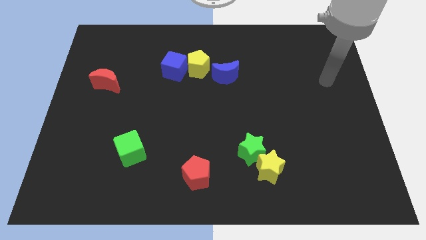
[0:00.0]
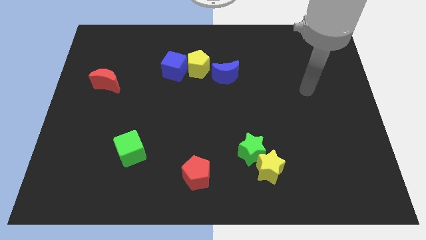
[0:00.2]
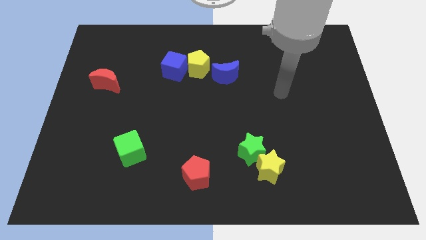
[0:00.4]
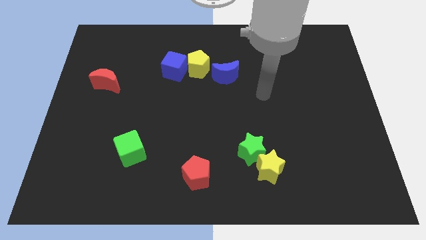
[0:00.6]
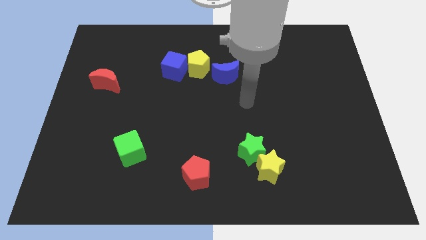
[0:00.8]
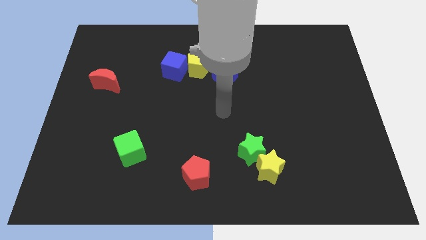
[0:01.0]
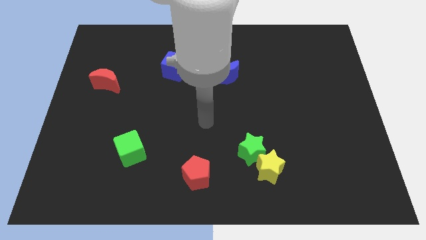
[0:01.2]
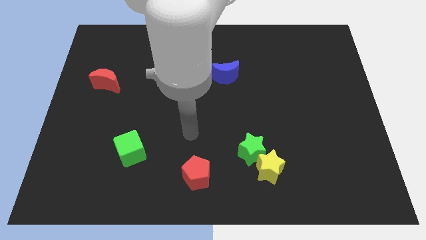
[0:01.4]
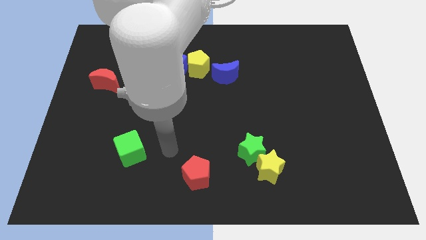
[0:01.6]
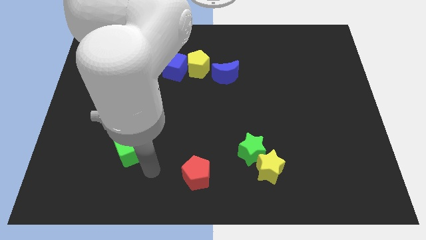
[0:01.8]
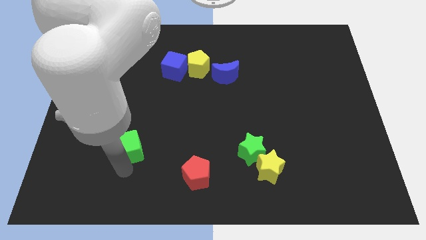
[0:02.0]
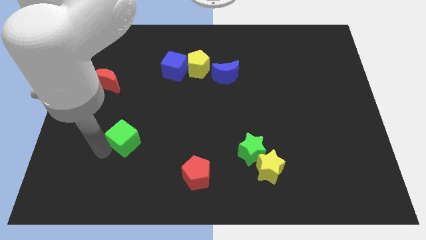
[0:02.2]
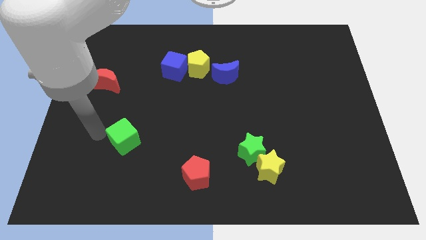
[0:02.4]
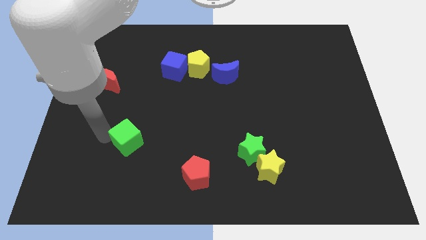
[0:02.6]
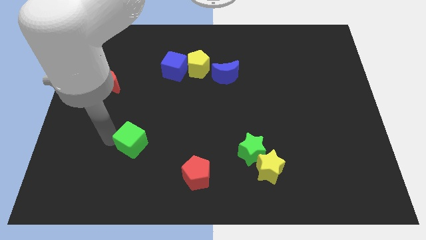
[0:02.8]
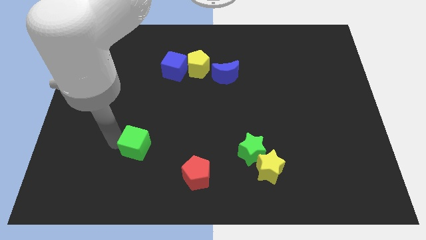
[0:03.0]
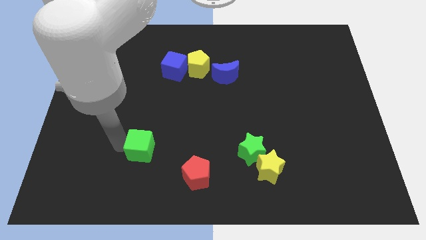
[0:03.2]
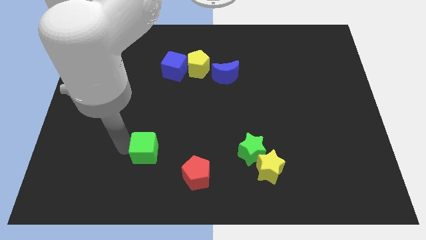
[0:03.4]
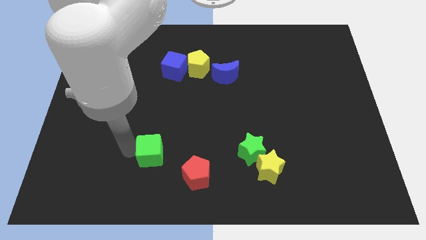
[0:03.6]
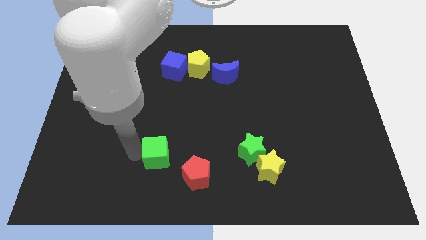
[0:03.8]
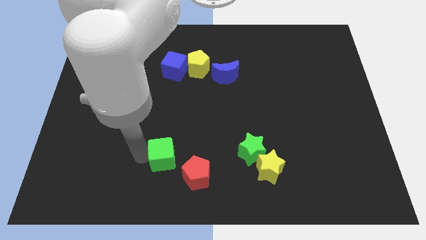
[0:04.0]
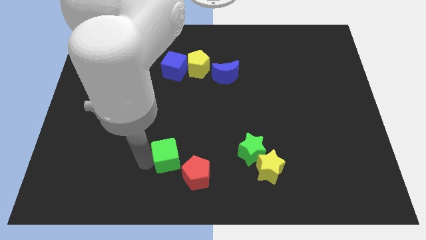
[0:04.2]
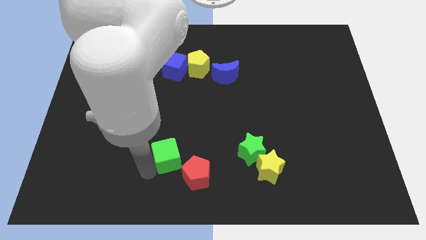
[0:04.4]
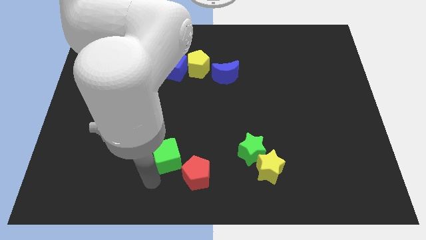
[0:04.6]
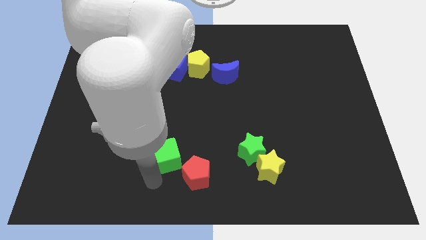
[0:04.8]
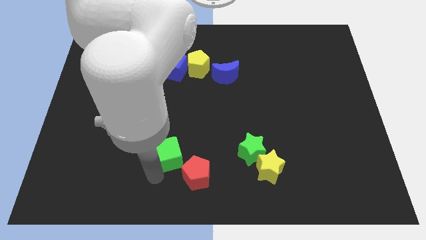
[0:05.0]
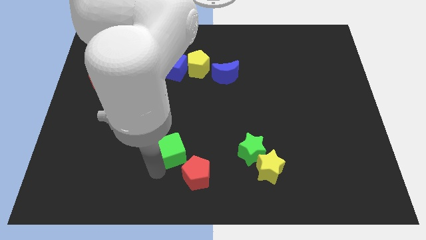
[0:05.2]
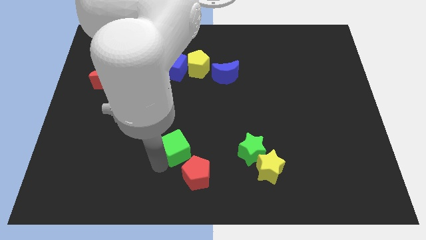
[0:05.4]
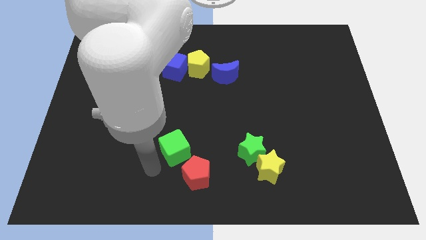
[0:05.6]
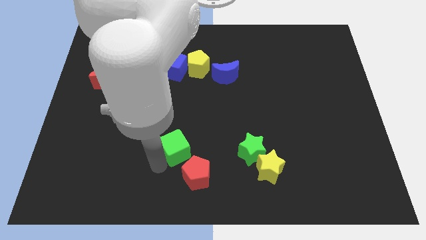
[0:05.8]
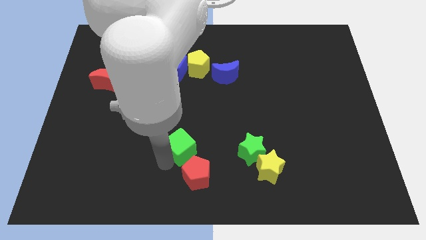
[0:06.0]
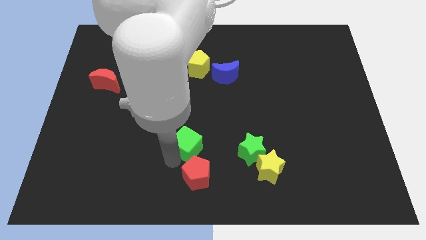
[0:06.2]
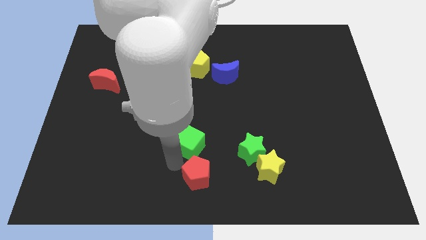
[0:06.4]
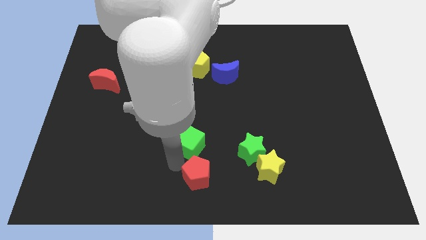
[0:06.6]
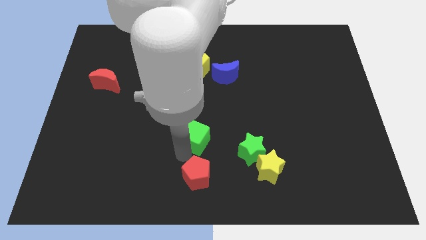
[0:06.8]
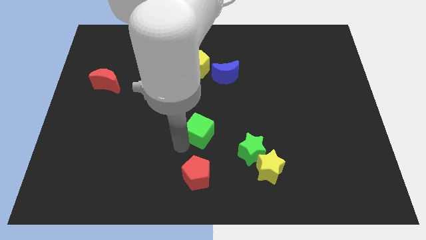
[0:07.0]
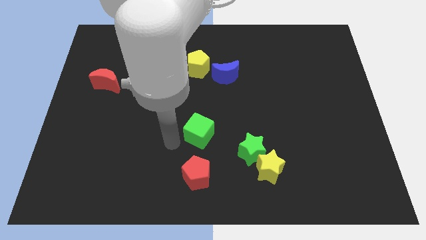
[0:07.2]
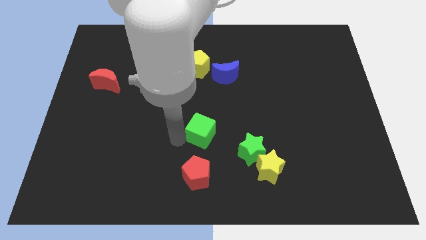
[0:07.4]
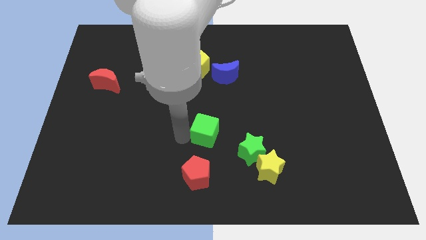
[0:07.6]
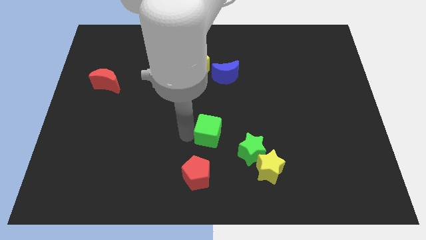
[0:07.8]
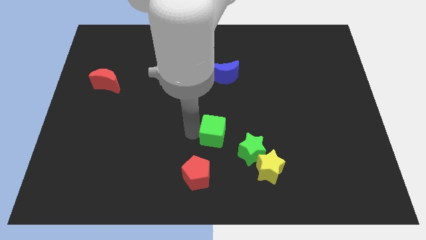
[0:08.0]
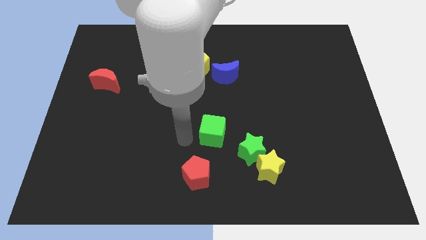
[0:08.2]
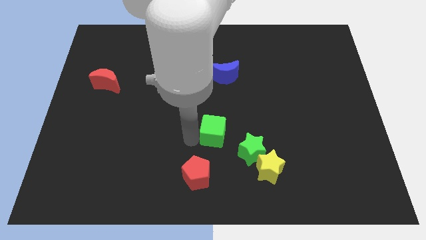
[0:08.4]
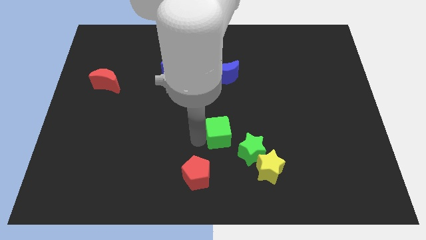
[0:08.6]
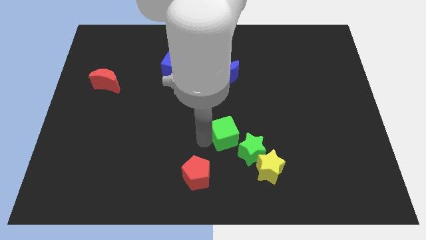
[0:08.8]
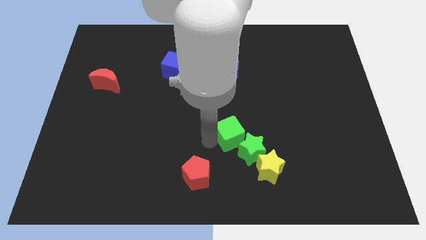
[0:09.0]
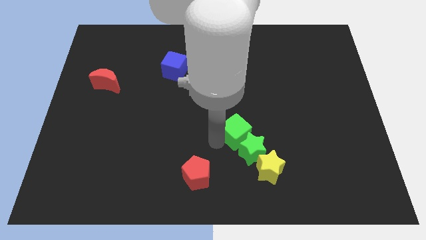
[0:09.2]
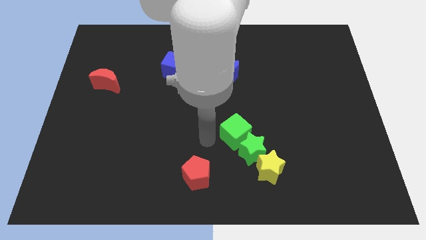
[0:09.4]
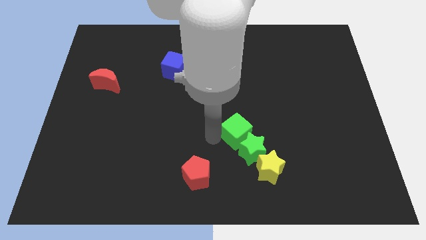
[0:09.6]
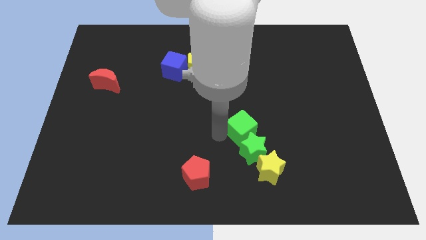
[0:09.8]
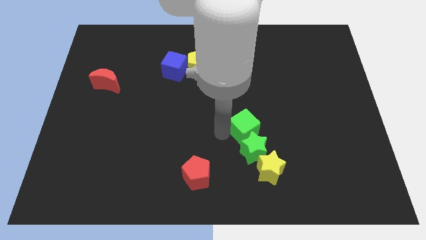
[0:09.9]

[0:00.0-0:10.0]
push the green cube above the yellow star

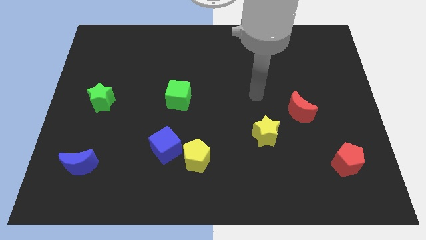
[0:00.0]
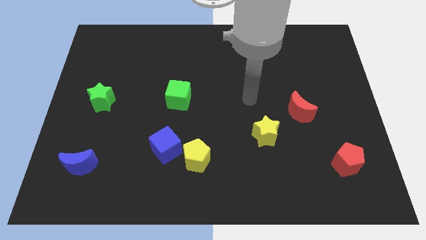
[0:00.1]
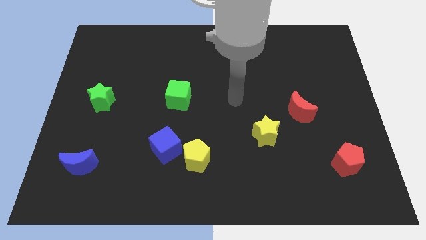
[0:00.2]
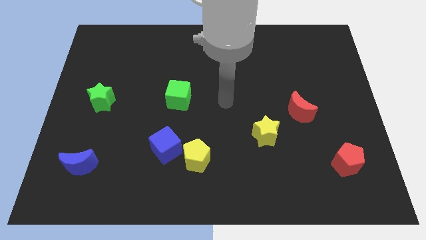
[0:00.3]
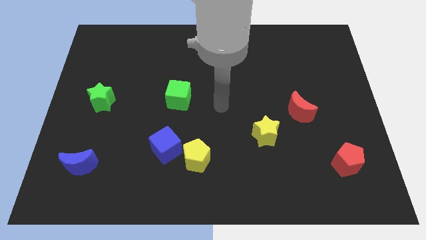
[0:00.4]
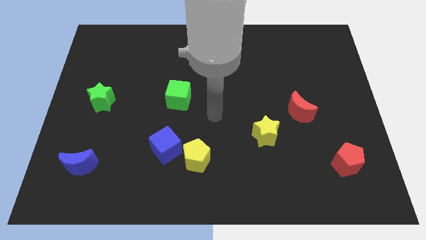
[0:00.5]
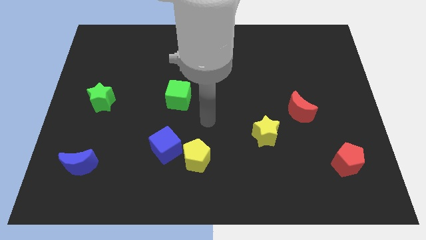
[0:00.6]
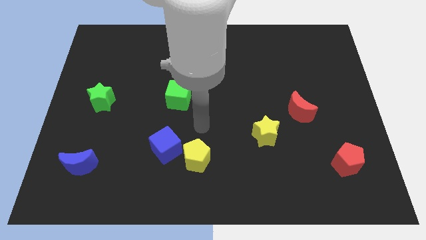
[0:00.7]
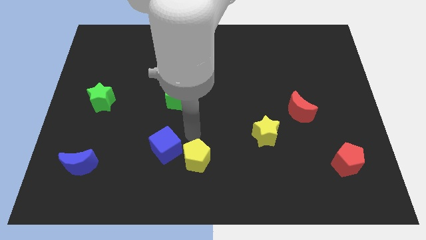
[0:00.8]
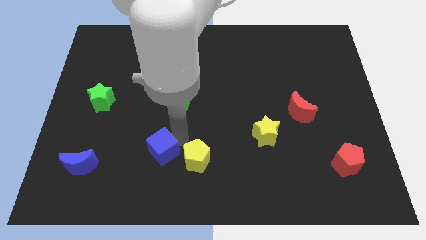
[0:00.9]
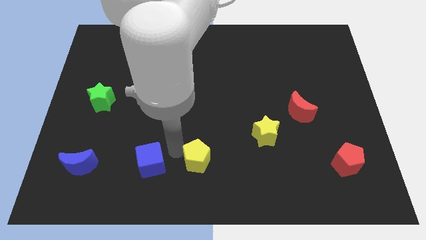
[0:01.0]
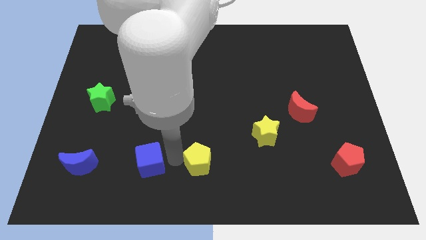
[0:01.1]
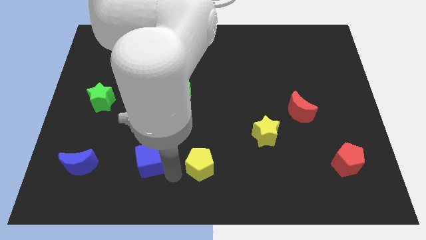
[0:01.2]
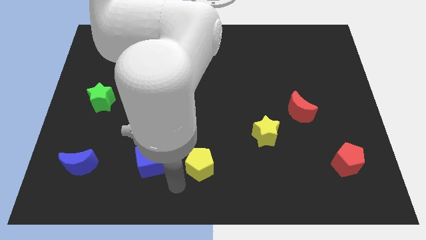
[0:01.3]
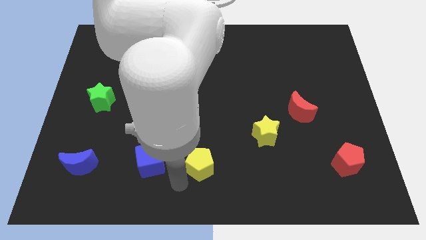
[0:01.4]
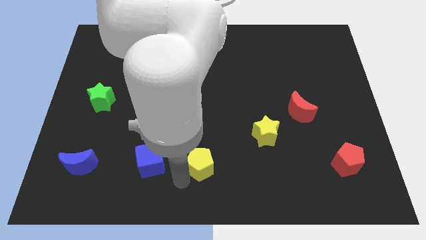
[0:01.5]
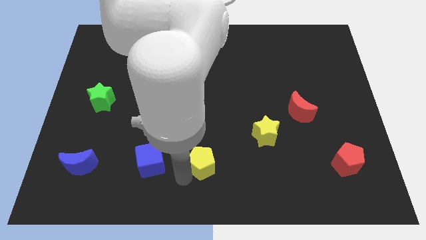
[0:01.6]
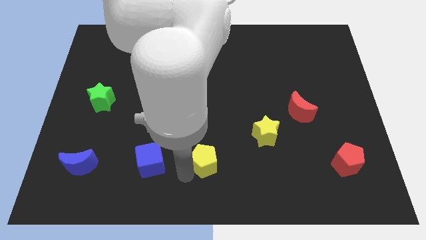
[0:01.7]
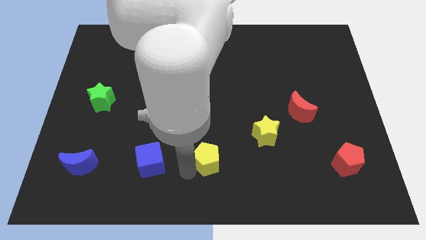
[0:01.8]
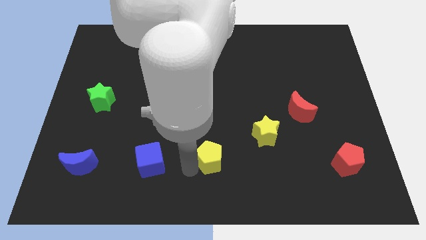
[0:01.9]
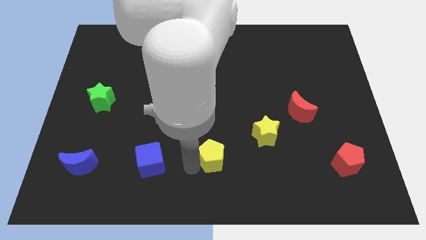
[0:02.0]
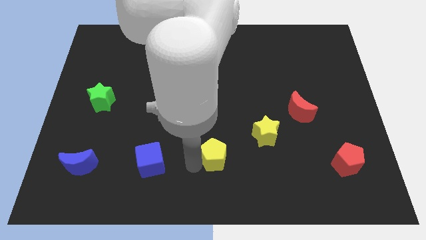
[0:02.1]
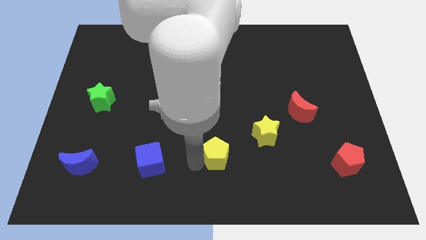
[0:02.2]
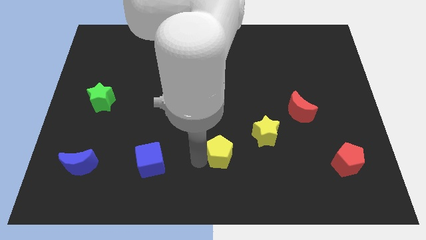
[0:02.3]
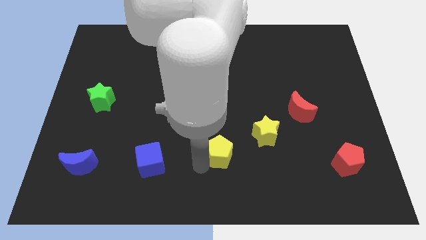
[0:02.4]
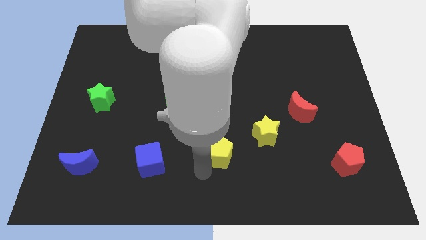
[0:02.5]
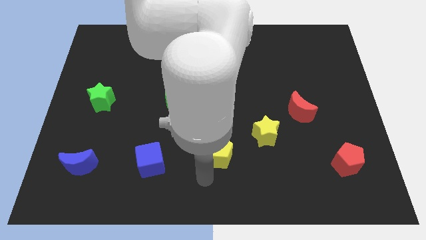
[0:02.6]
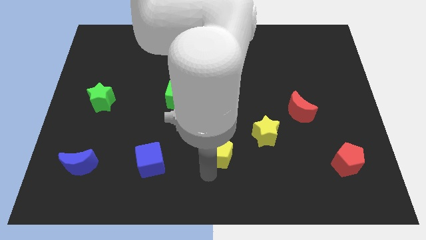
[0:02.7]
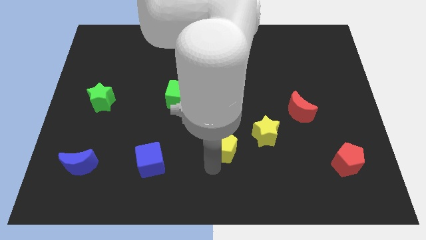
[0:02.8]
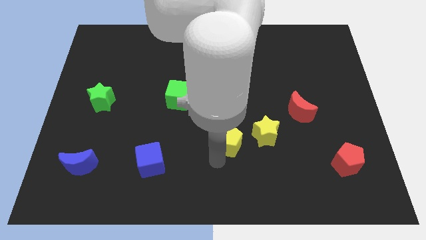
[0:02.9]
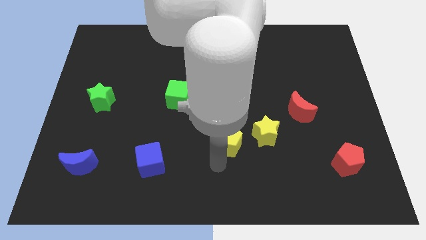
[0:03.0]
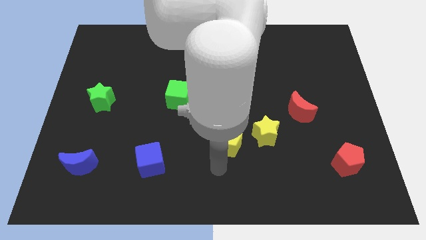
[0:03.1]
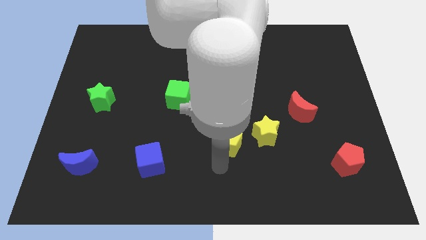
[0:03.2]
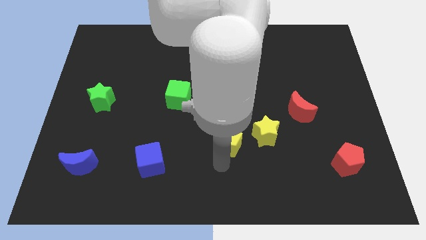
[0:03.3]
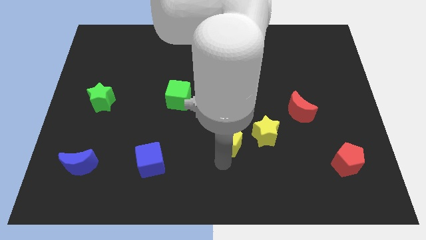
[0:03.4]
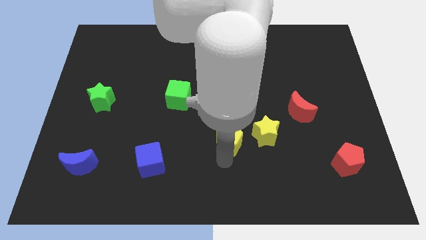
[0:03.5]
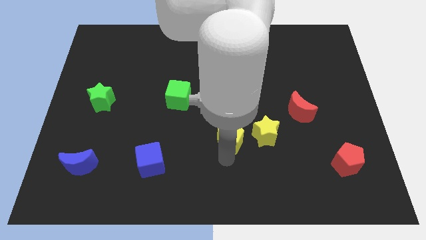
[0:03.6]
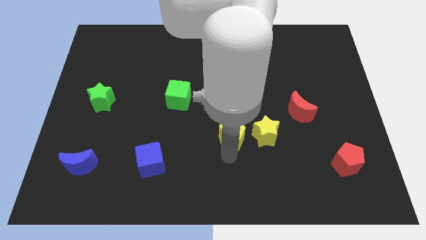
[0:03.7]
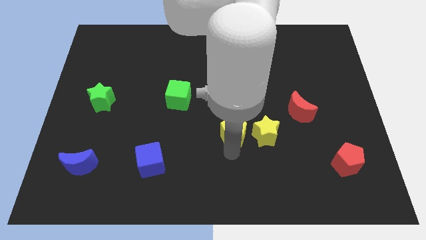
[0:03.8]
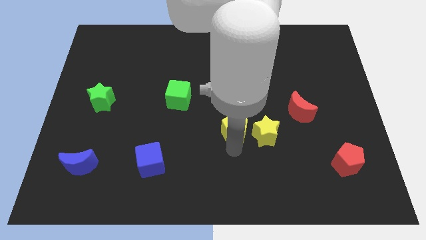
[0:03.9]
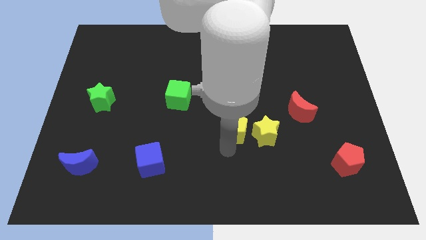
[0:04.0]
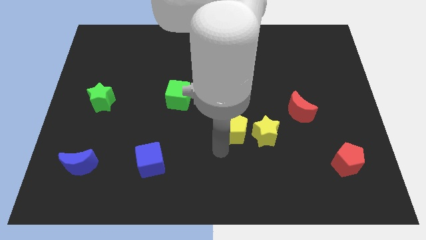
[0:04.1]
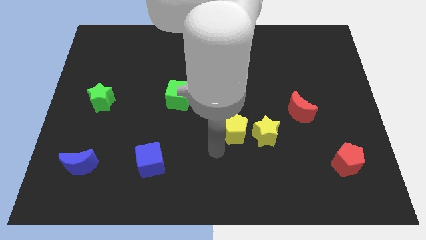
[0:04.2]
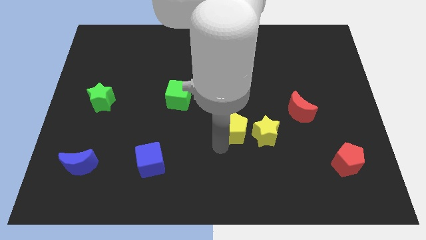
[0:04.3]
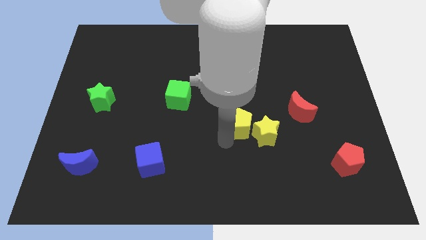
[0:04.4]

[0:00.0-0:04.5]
push the yellow pentagon left of the red moon
